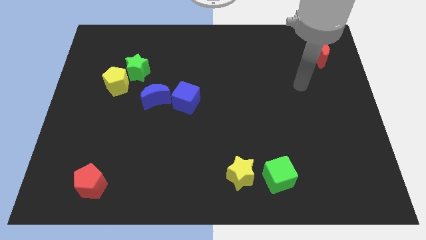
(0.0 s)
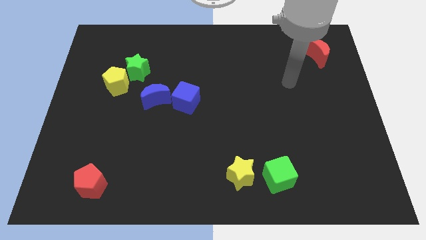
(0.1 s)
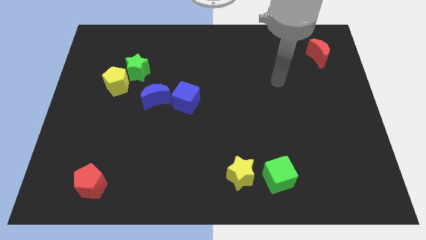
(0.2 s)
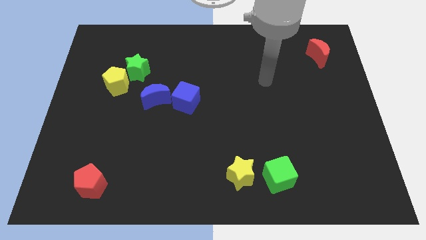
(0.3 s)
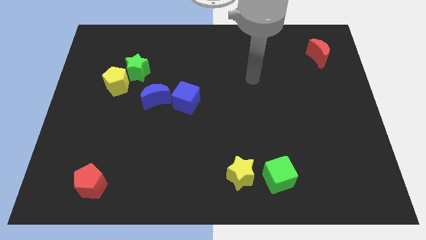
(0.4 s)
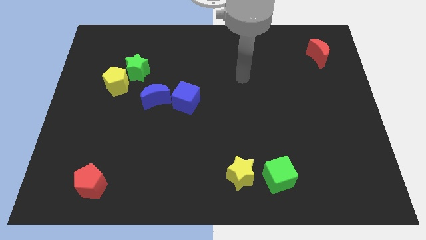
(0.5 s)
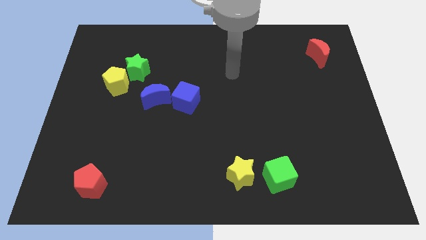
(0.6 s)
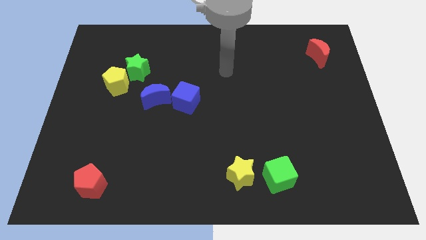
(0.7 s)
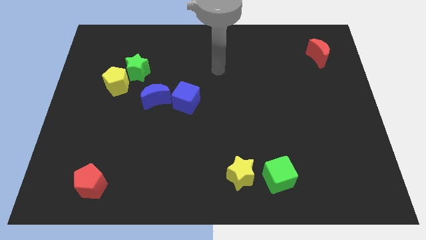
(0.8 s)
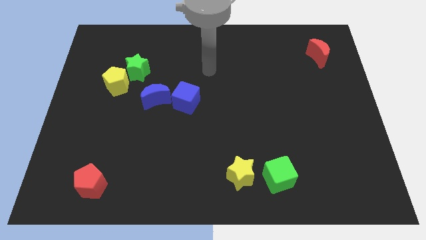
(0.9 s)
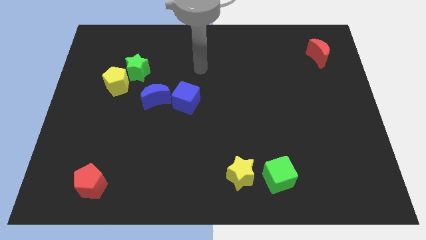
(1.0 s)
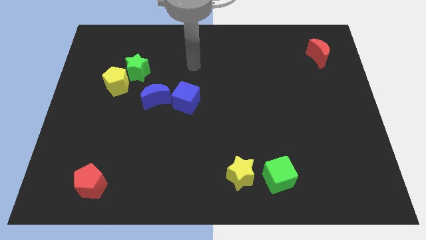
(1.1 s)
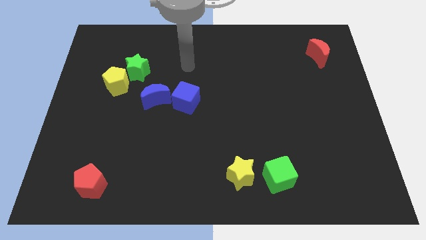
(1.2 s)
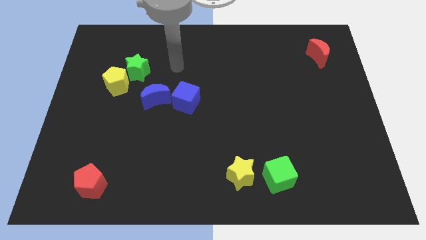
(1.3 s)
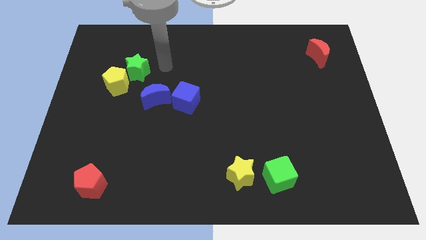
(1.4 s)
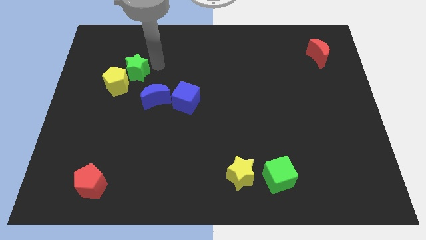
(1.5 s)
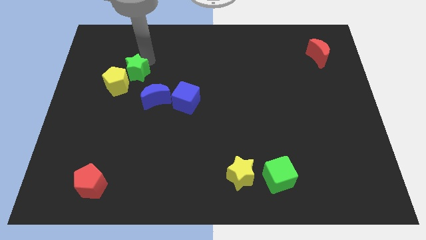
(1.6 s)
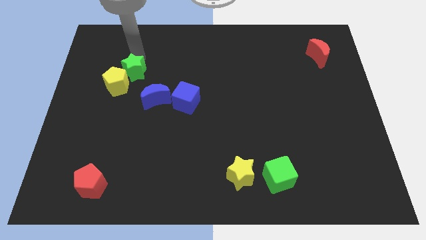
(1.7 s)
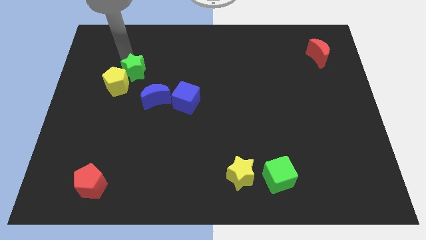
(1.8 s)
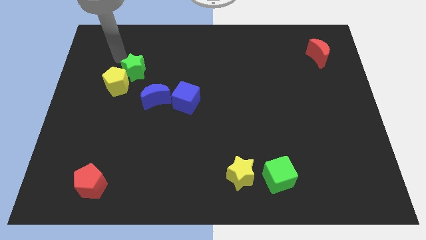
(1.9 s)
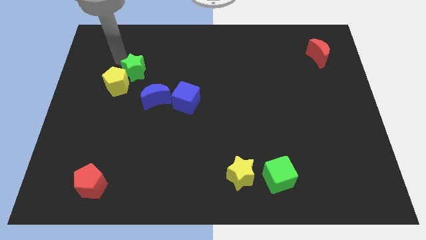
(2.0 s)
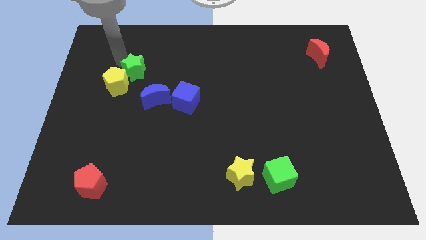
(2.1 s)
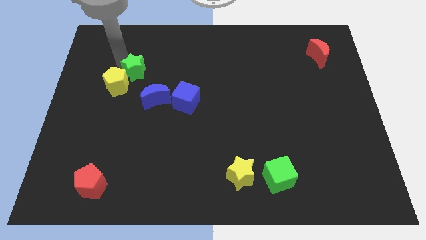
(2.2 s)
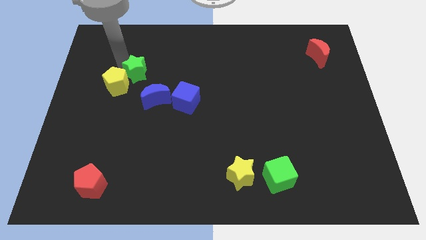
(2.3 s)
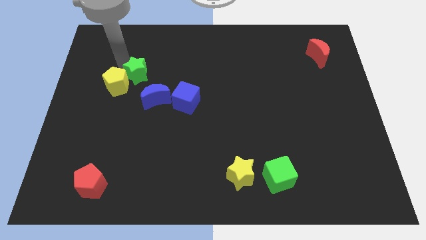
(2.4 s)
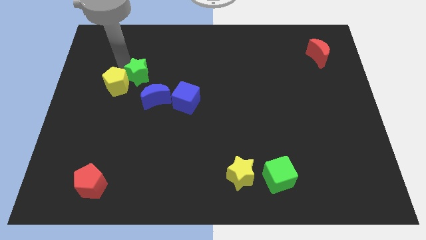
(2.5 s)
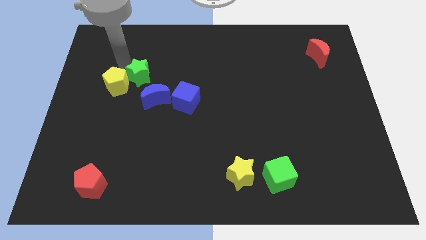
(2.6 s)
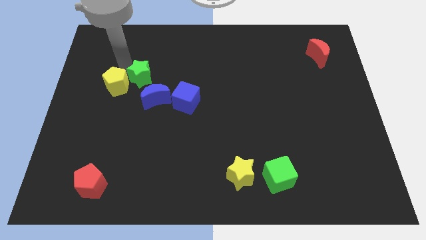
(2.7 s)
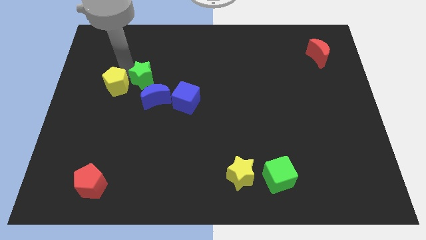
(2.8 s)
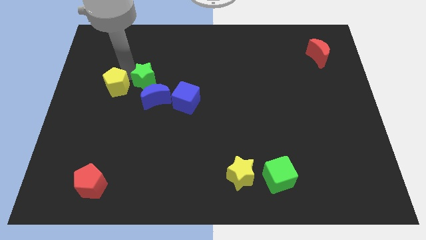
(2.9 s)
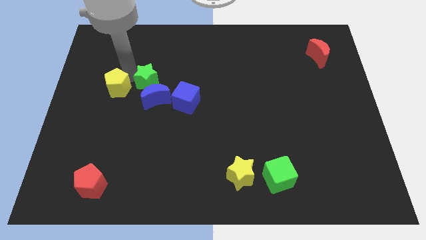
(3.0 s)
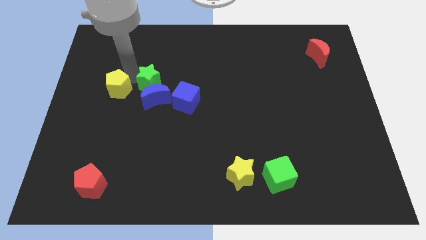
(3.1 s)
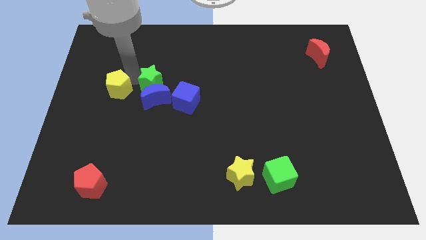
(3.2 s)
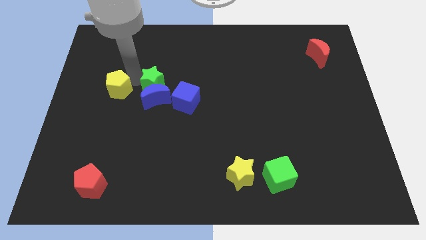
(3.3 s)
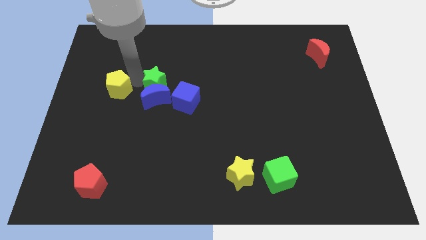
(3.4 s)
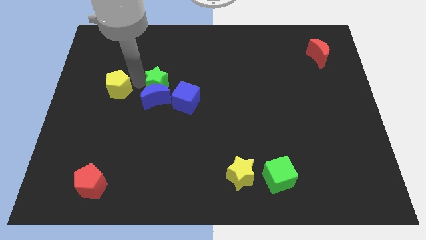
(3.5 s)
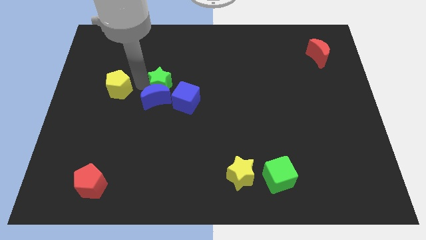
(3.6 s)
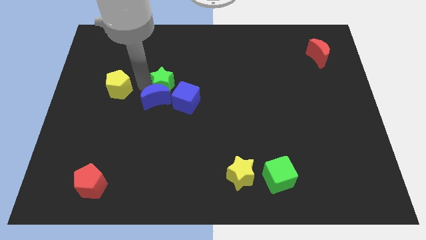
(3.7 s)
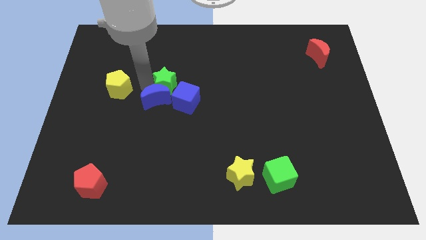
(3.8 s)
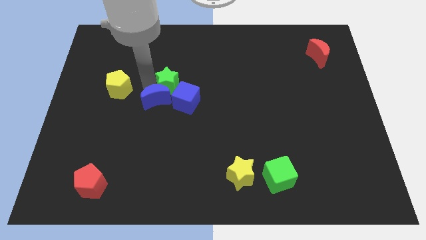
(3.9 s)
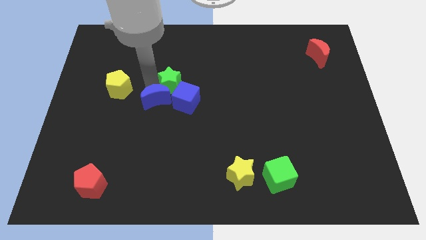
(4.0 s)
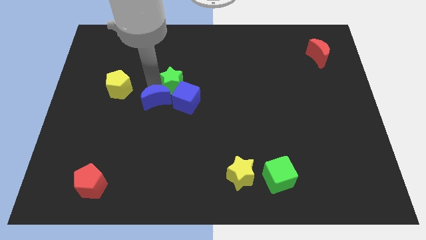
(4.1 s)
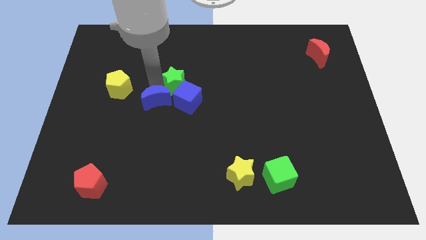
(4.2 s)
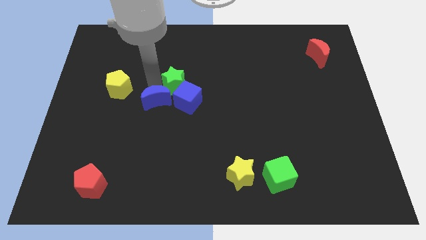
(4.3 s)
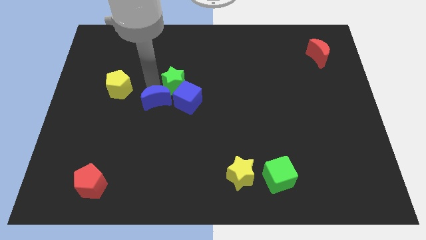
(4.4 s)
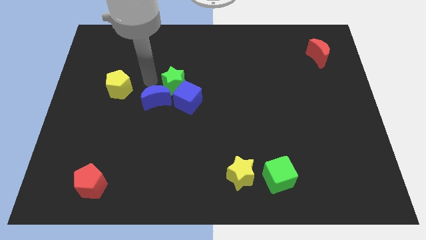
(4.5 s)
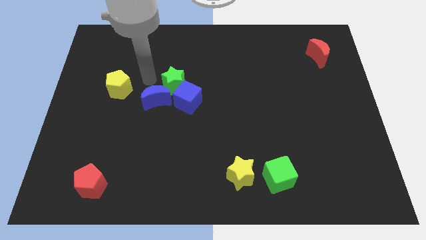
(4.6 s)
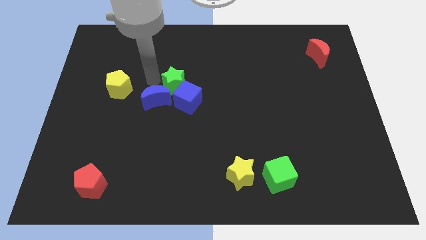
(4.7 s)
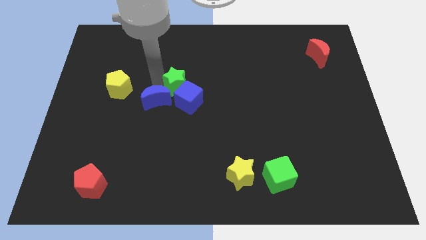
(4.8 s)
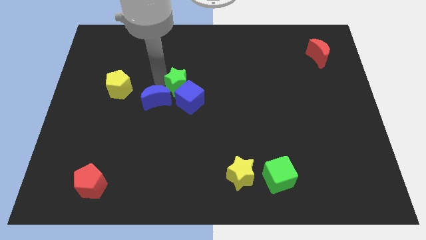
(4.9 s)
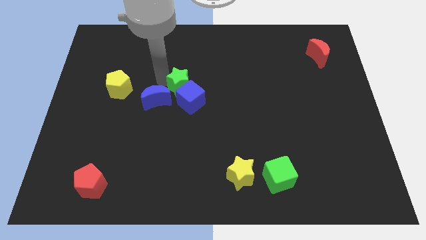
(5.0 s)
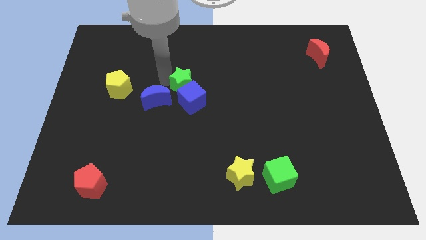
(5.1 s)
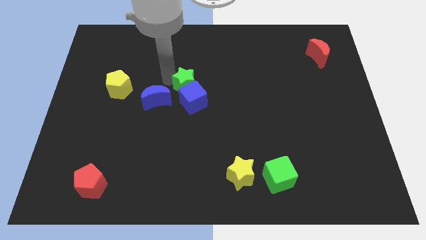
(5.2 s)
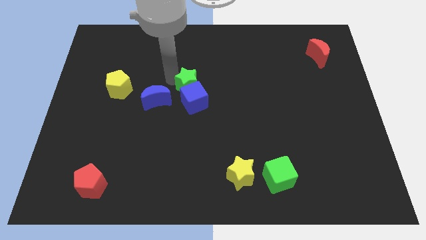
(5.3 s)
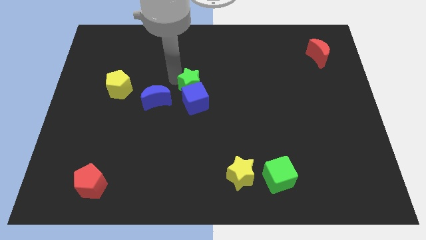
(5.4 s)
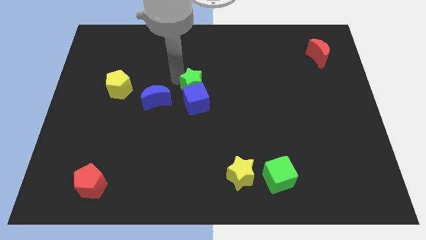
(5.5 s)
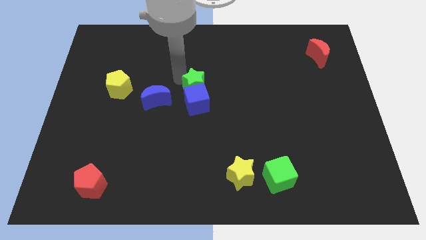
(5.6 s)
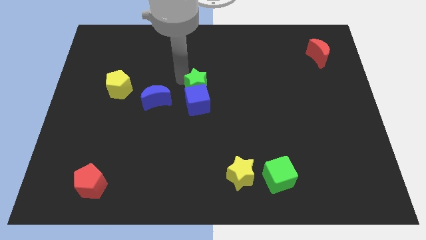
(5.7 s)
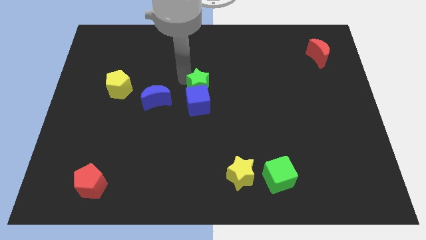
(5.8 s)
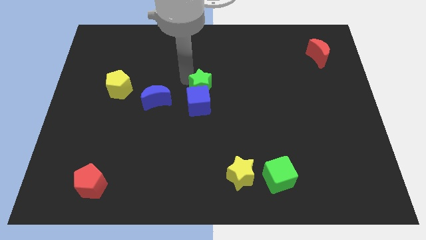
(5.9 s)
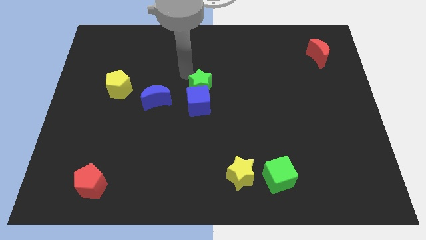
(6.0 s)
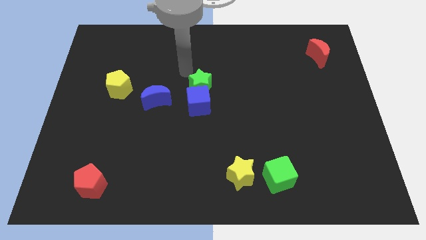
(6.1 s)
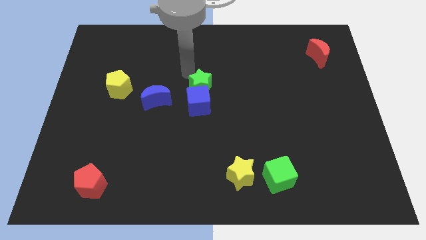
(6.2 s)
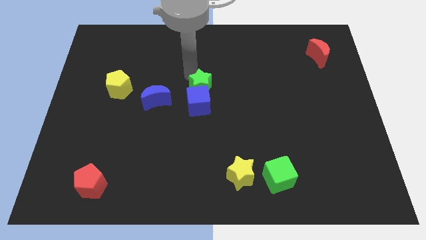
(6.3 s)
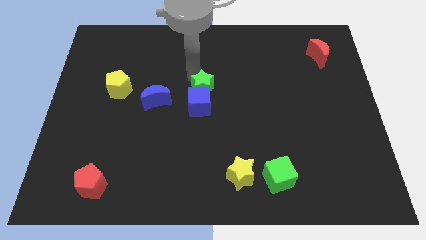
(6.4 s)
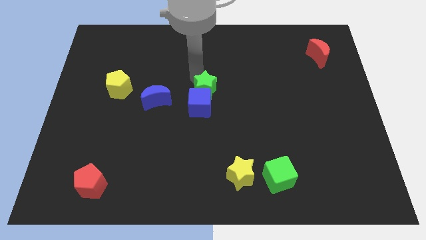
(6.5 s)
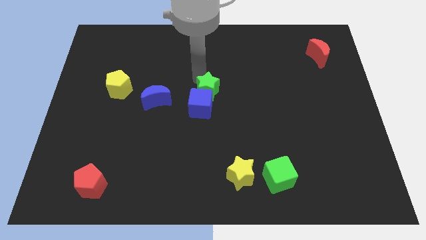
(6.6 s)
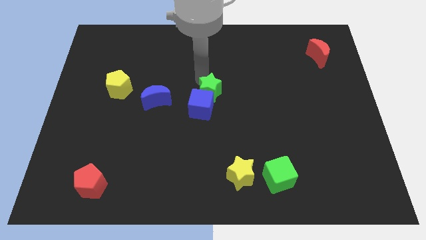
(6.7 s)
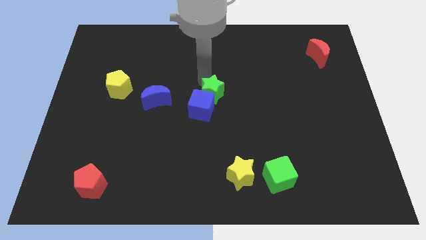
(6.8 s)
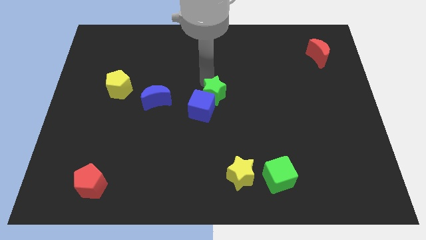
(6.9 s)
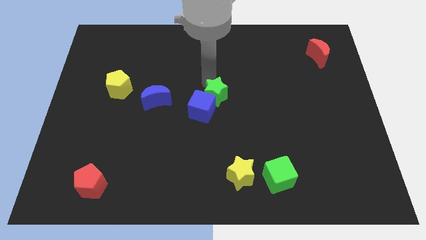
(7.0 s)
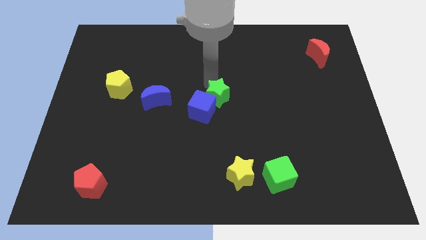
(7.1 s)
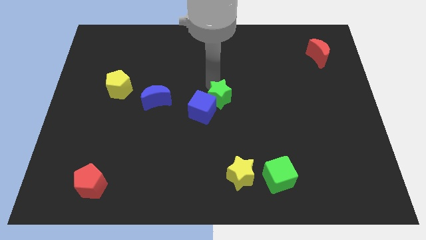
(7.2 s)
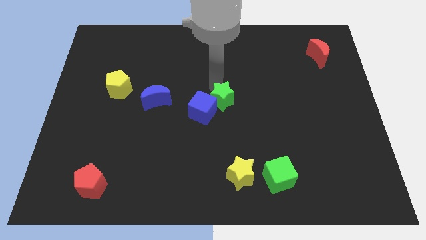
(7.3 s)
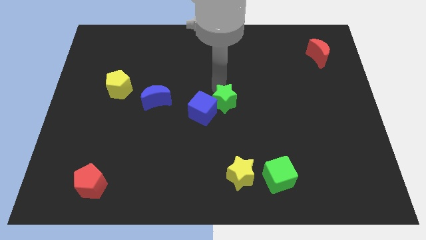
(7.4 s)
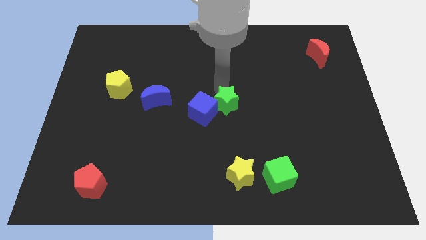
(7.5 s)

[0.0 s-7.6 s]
slide the green star downwards and to the right diagonally
